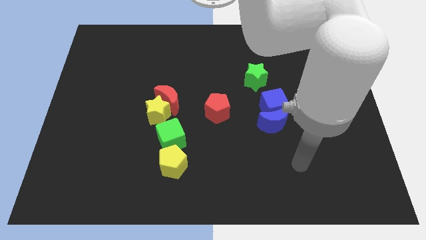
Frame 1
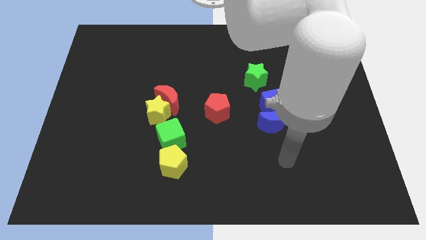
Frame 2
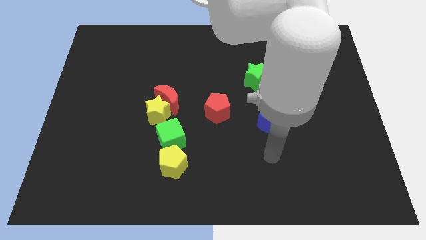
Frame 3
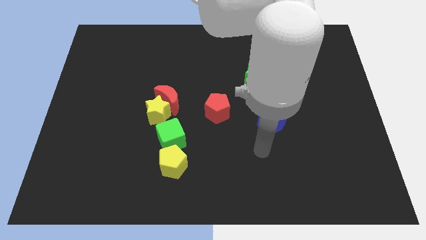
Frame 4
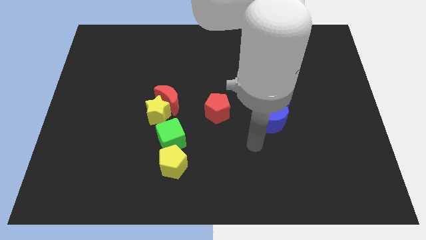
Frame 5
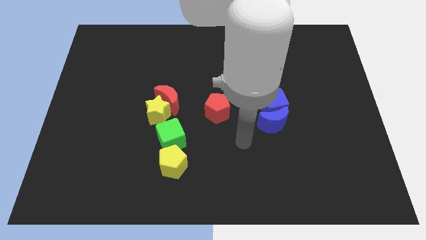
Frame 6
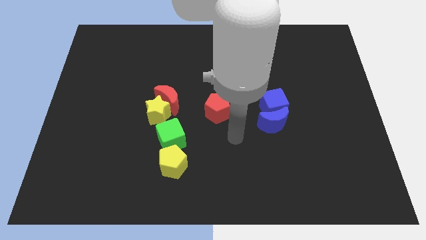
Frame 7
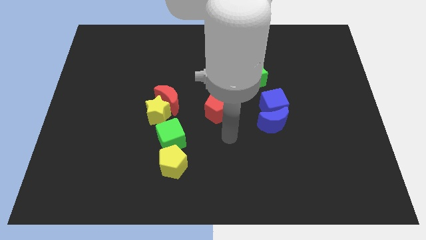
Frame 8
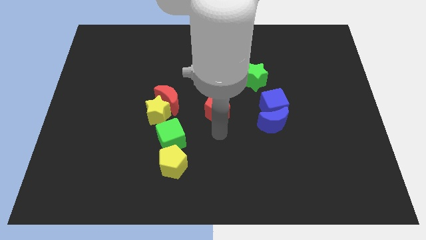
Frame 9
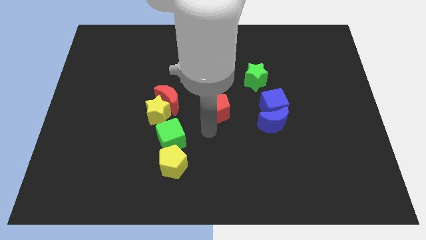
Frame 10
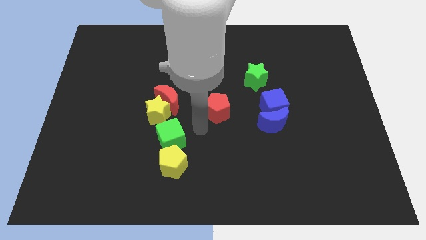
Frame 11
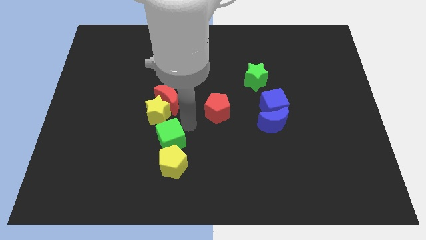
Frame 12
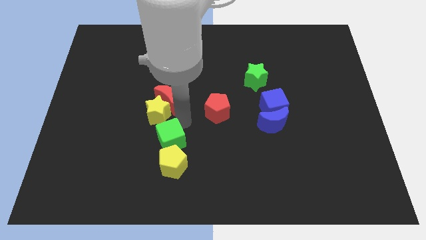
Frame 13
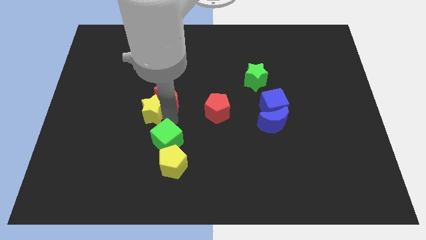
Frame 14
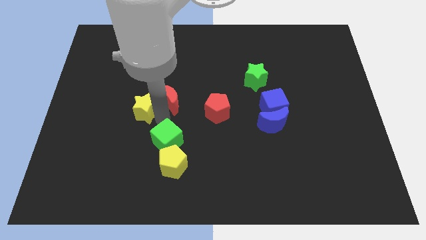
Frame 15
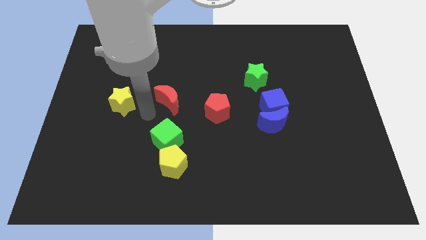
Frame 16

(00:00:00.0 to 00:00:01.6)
move the red moon away from the yellow star

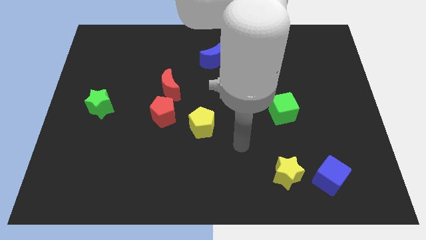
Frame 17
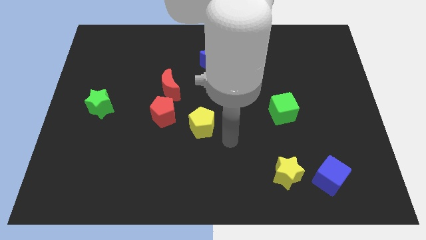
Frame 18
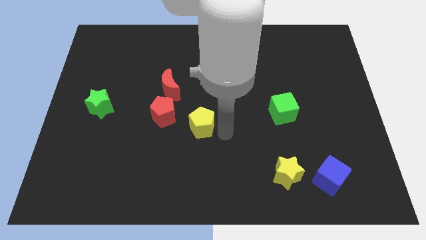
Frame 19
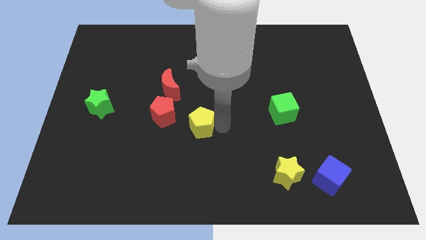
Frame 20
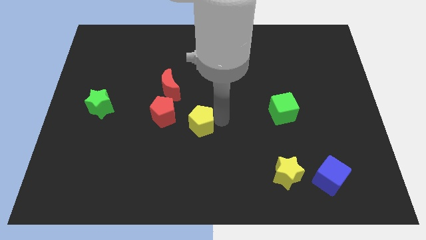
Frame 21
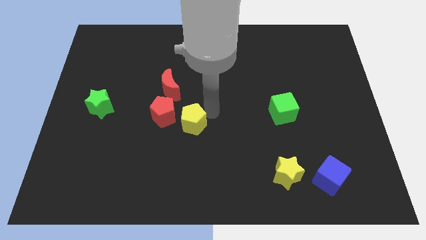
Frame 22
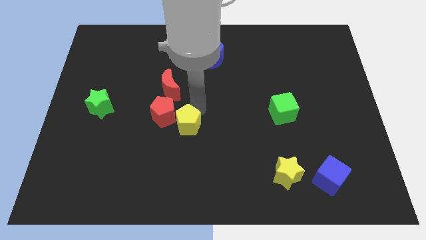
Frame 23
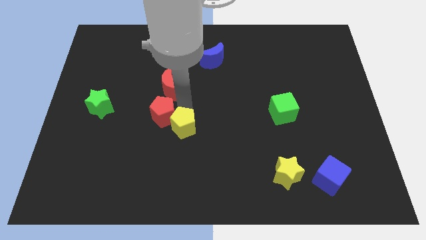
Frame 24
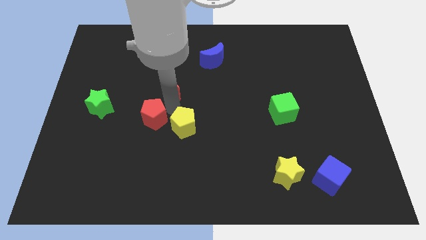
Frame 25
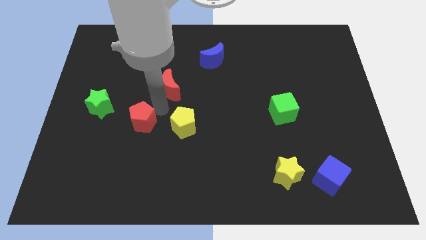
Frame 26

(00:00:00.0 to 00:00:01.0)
pull the red moon apart from the red pentagon

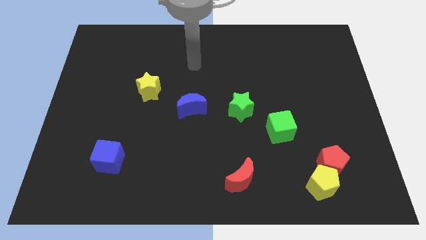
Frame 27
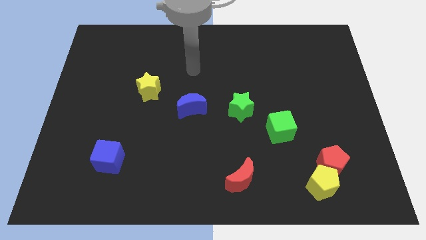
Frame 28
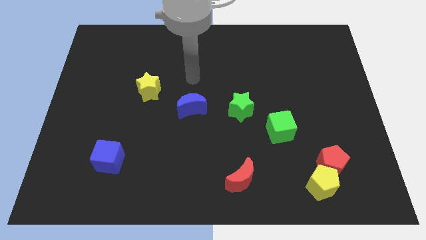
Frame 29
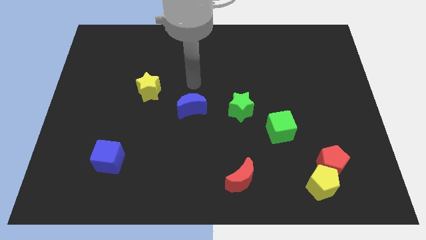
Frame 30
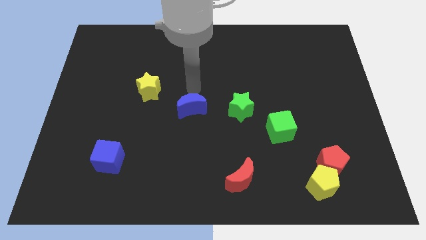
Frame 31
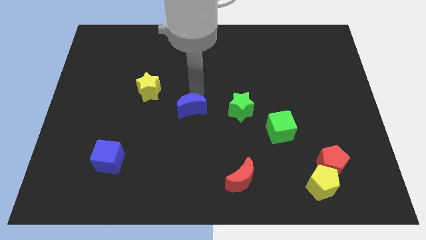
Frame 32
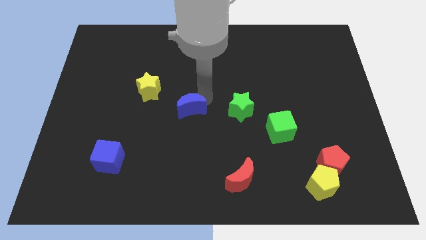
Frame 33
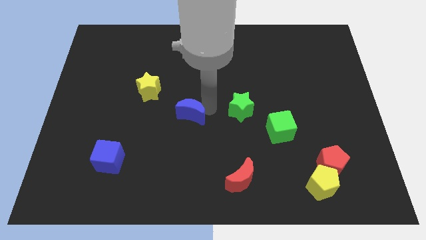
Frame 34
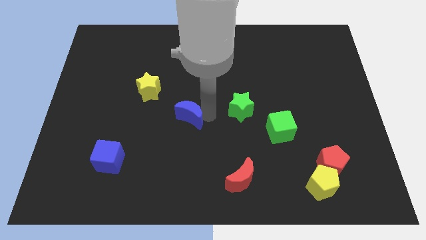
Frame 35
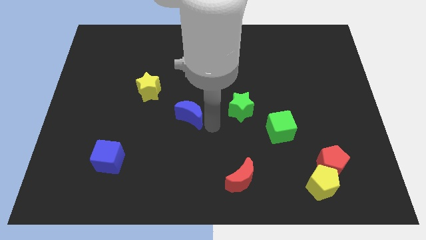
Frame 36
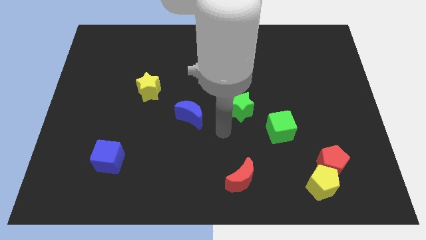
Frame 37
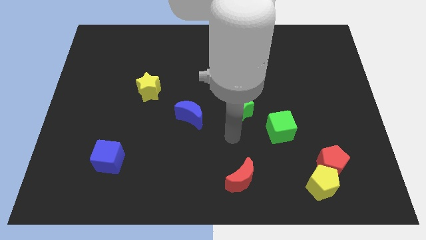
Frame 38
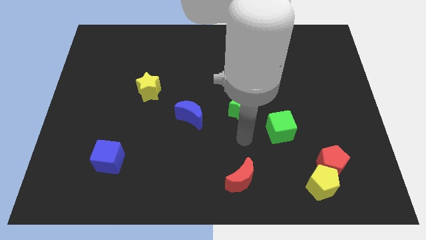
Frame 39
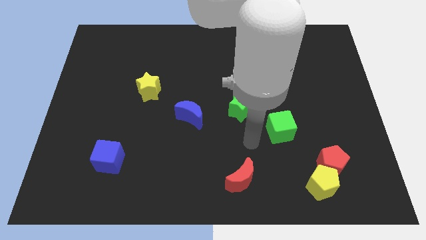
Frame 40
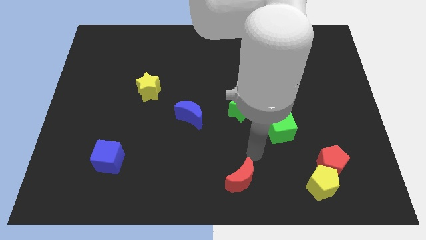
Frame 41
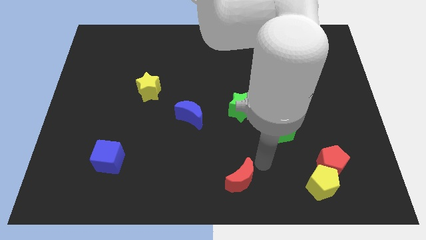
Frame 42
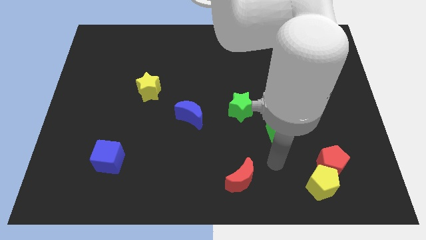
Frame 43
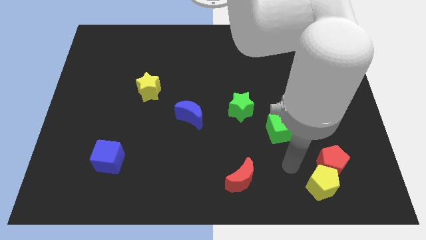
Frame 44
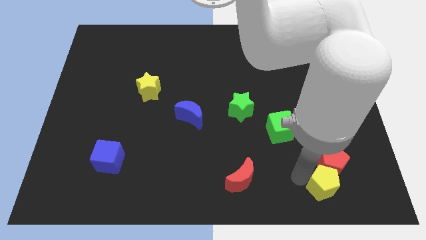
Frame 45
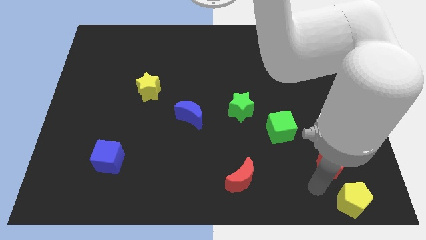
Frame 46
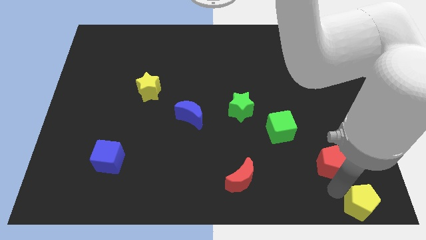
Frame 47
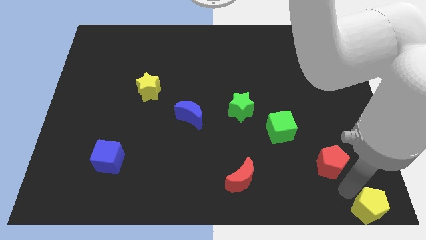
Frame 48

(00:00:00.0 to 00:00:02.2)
move the red pentagon away from the yellow pentagon

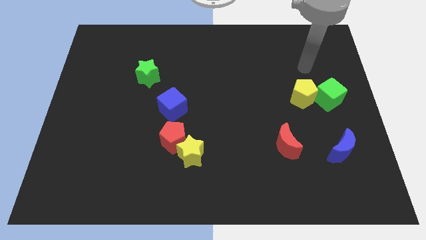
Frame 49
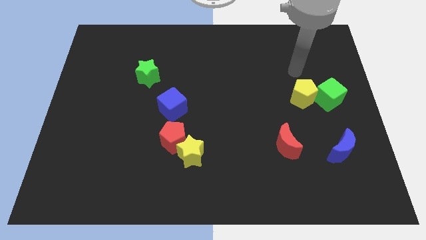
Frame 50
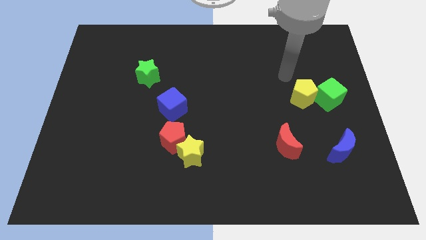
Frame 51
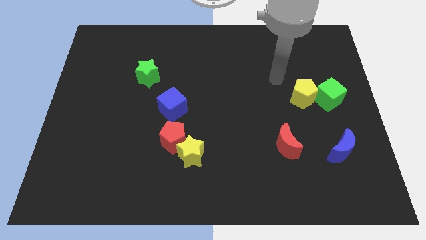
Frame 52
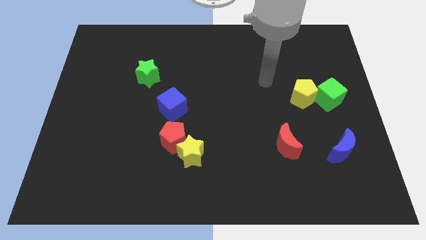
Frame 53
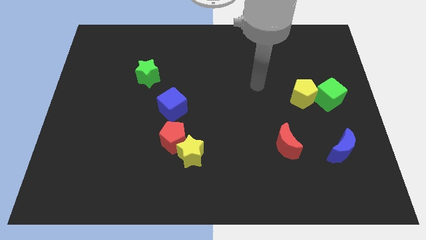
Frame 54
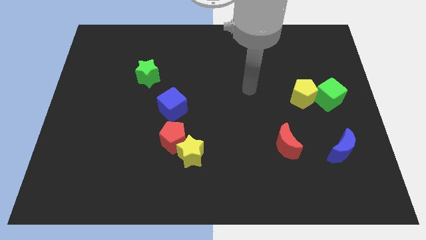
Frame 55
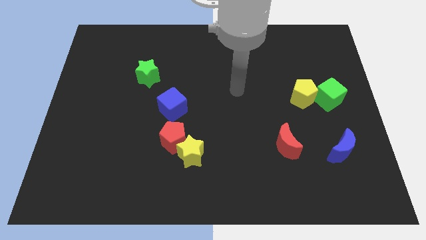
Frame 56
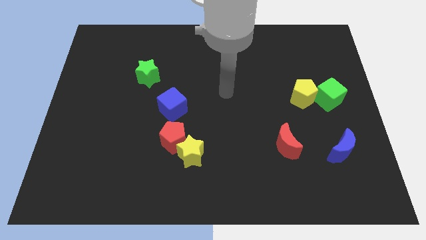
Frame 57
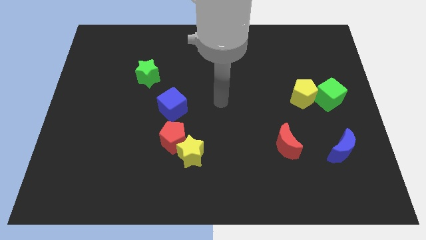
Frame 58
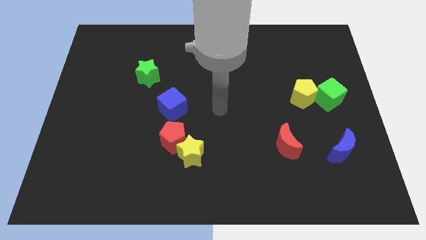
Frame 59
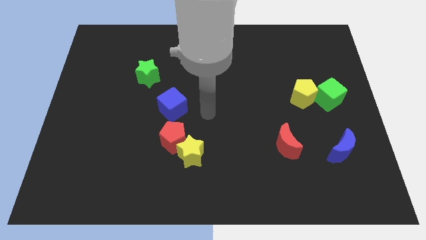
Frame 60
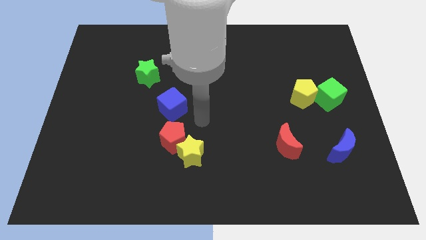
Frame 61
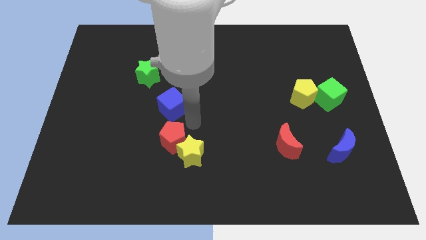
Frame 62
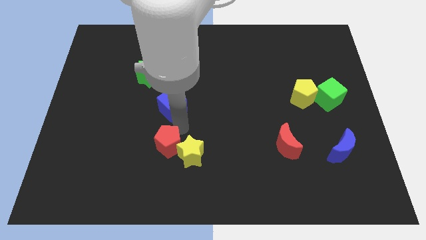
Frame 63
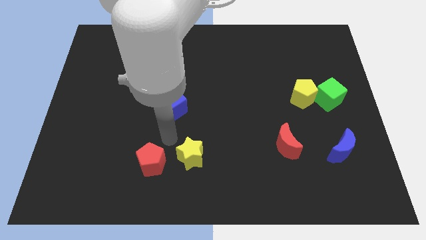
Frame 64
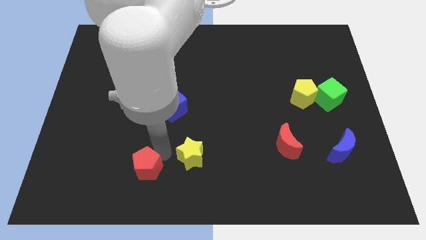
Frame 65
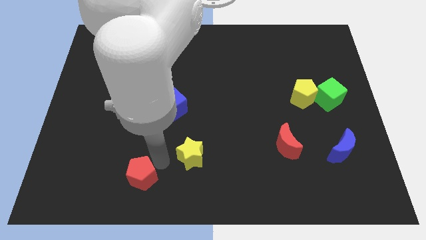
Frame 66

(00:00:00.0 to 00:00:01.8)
move the yellow star away from the red pentagon

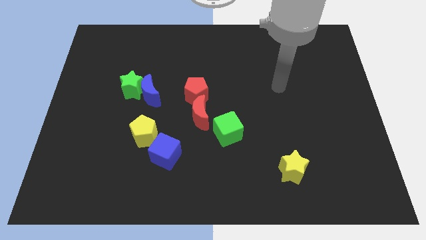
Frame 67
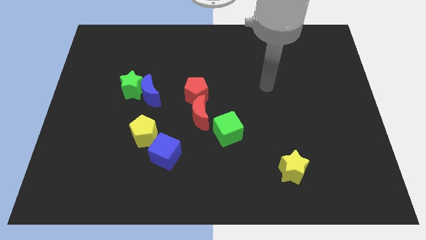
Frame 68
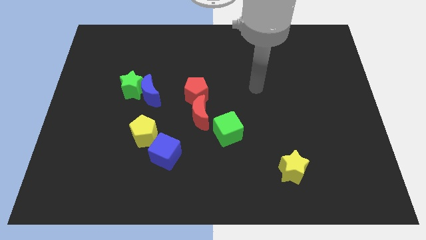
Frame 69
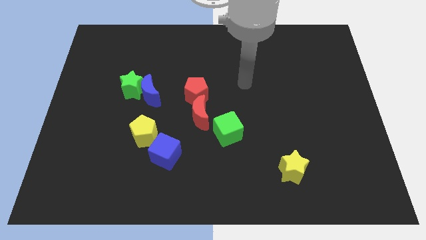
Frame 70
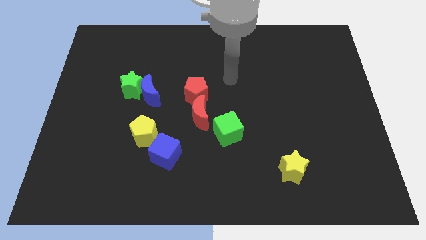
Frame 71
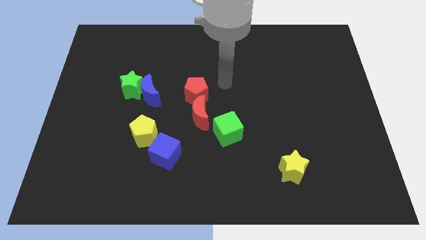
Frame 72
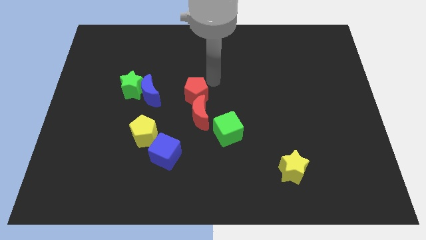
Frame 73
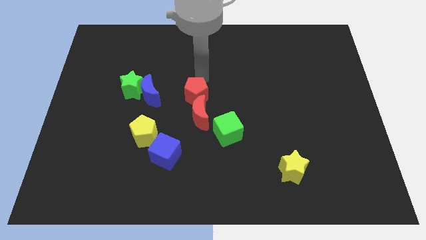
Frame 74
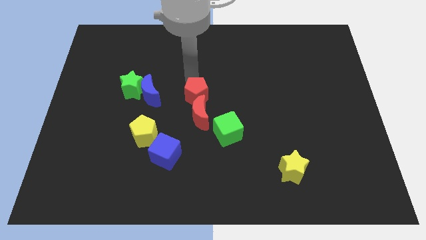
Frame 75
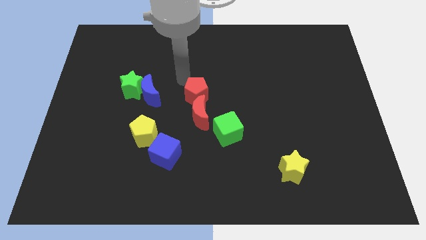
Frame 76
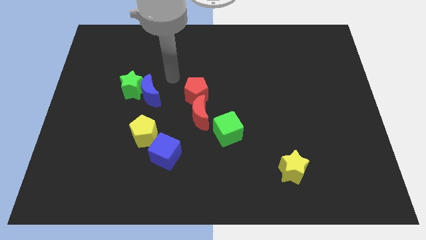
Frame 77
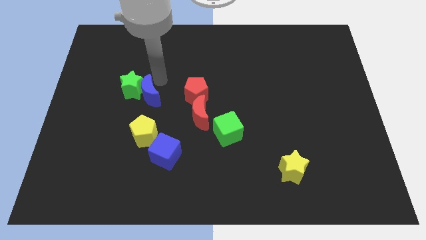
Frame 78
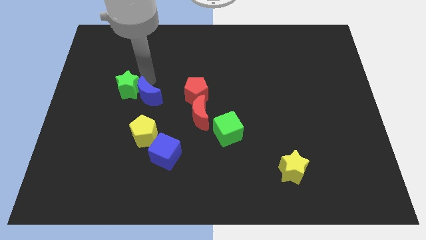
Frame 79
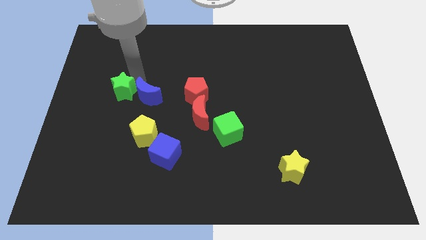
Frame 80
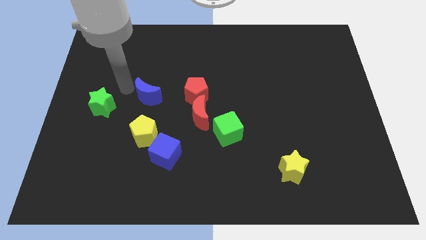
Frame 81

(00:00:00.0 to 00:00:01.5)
separate the blue moon from the green star

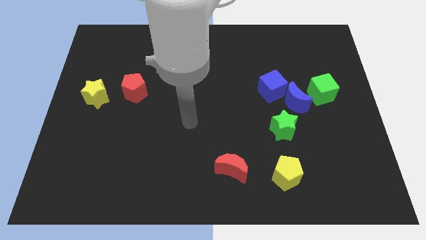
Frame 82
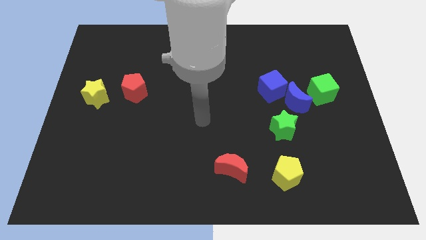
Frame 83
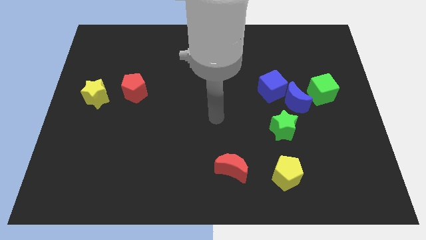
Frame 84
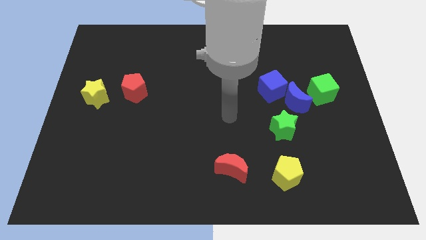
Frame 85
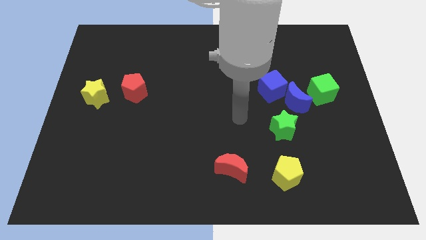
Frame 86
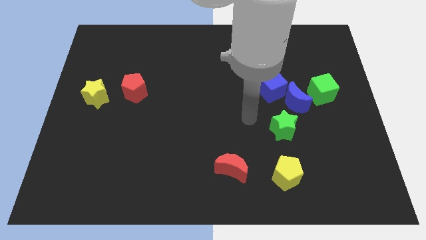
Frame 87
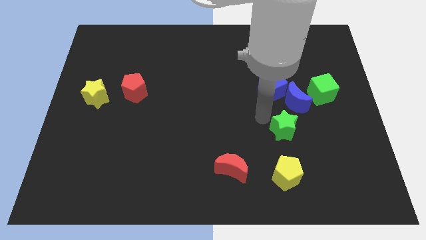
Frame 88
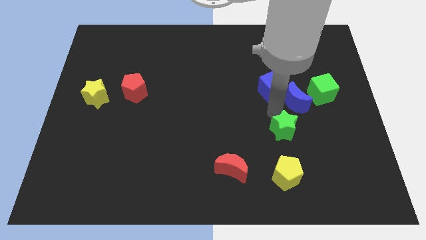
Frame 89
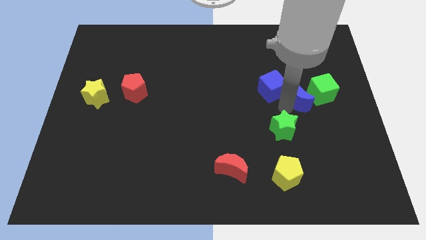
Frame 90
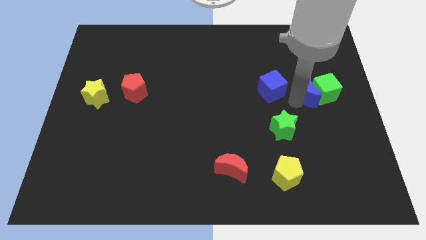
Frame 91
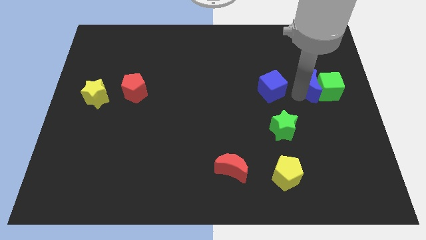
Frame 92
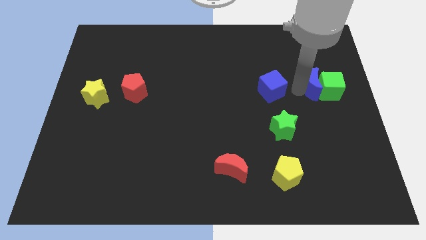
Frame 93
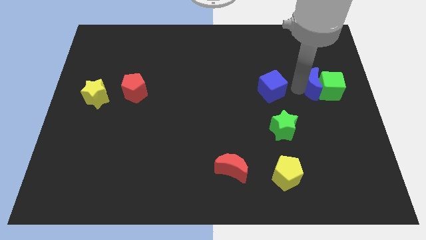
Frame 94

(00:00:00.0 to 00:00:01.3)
pull the blue cube apart from the blue moon
